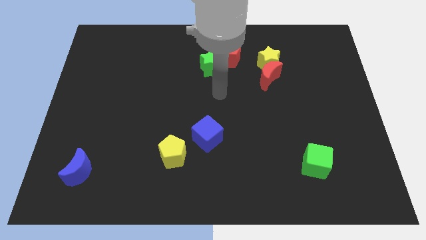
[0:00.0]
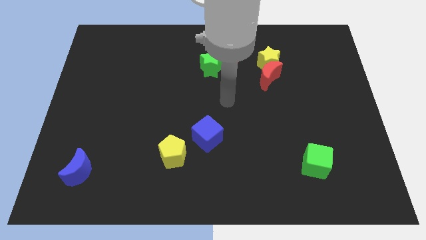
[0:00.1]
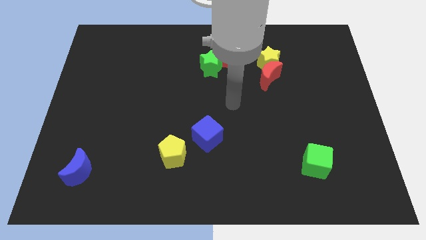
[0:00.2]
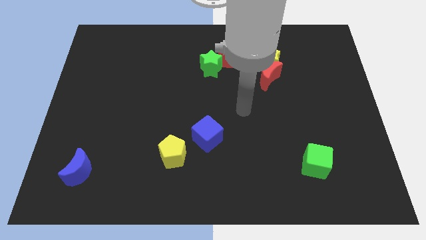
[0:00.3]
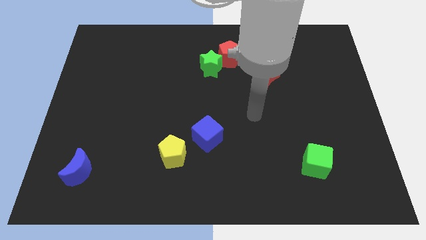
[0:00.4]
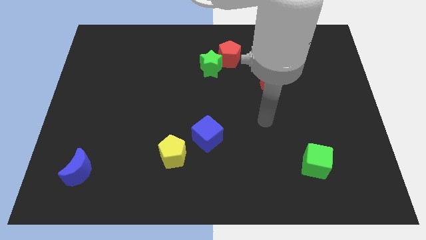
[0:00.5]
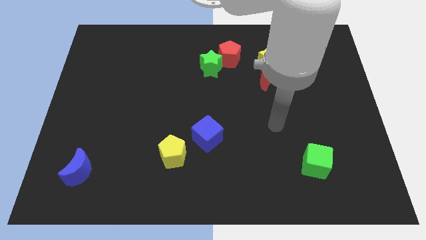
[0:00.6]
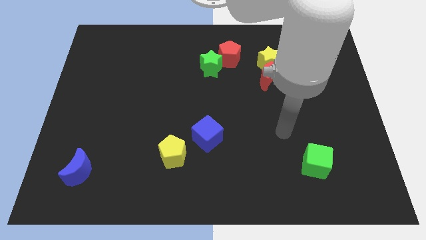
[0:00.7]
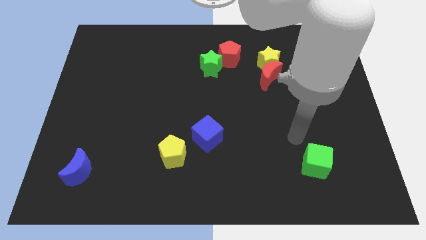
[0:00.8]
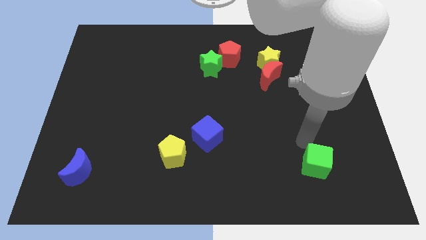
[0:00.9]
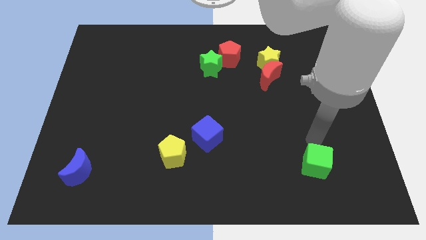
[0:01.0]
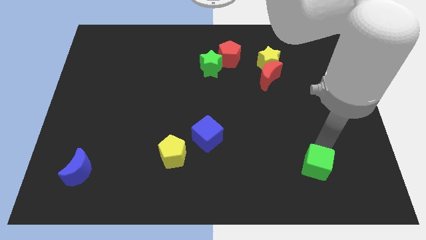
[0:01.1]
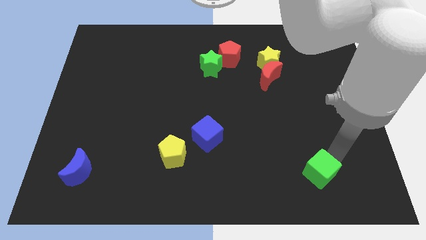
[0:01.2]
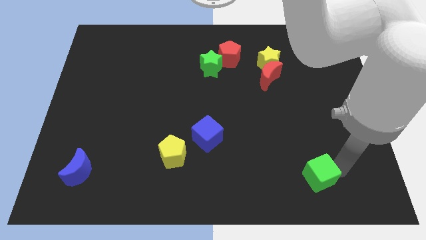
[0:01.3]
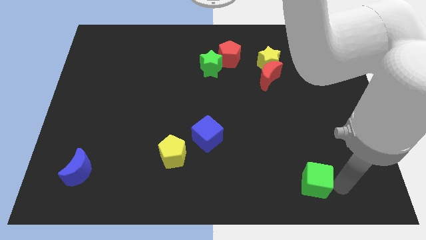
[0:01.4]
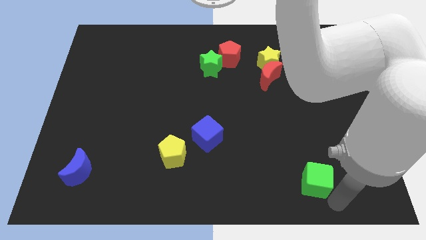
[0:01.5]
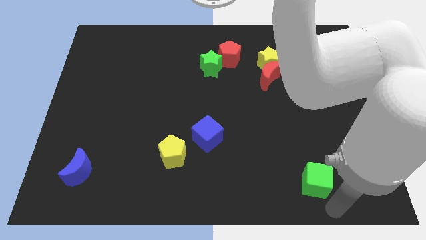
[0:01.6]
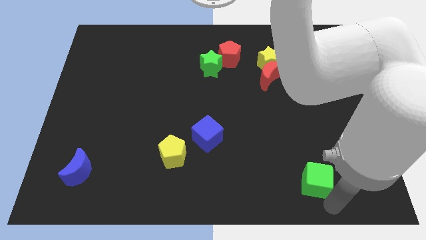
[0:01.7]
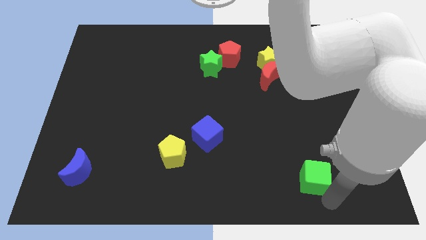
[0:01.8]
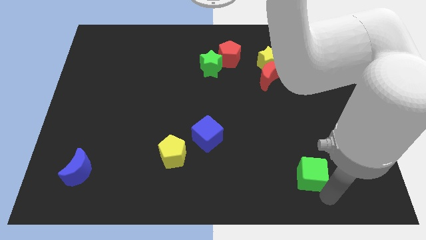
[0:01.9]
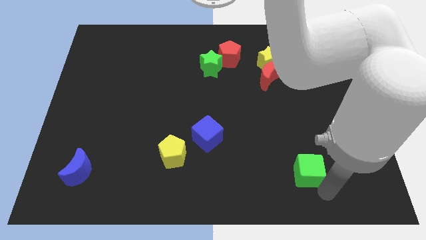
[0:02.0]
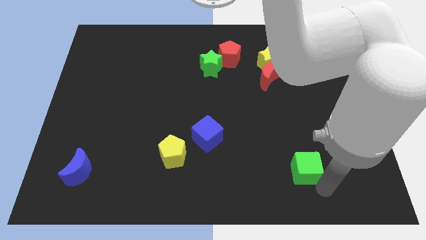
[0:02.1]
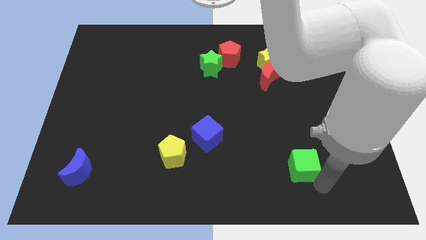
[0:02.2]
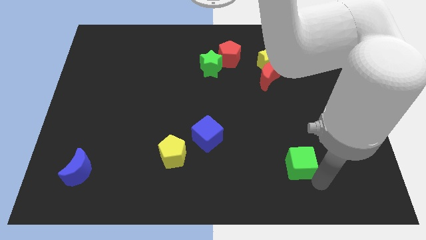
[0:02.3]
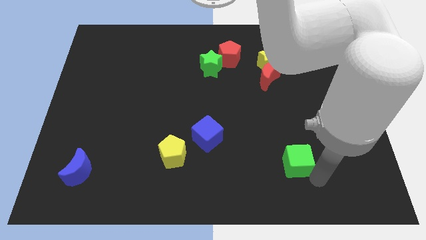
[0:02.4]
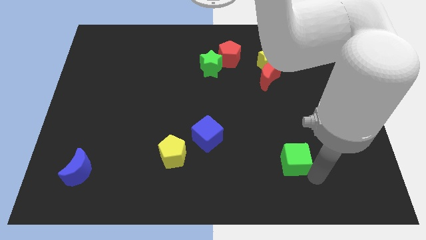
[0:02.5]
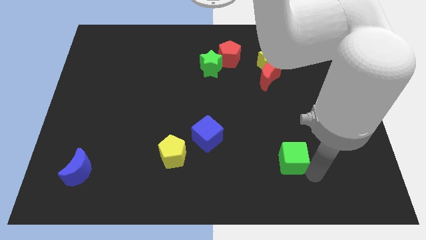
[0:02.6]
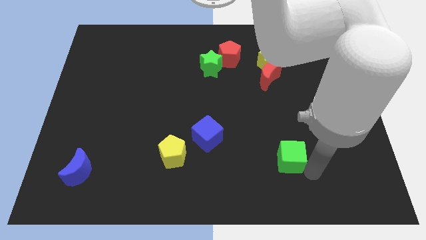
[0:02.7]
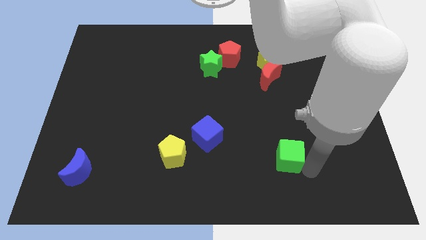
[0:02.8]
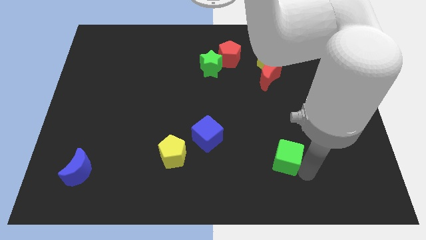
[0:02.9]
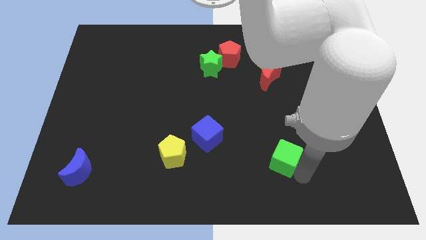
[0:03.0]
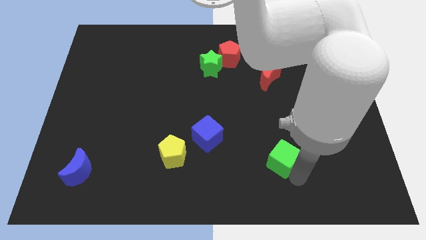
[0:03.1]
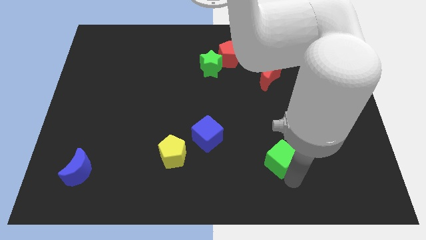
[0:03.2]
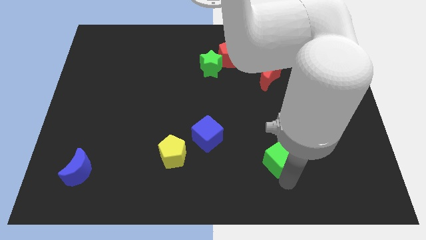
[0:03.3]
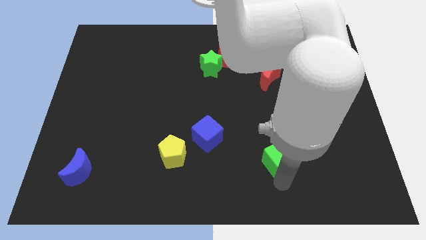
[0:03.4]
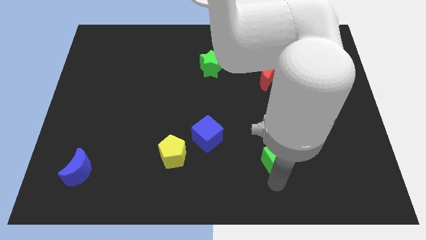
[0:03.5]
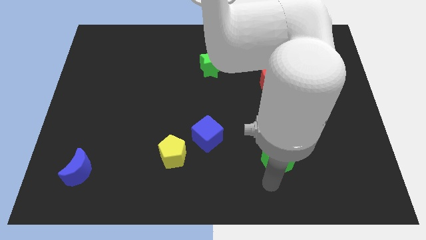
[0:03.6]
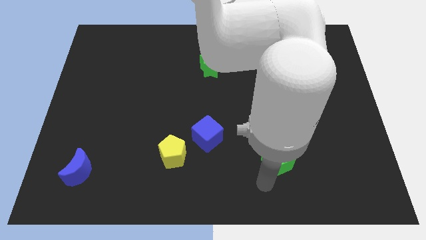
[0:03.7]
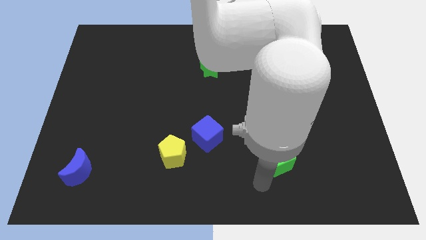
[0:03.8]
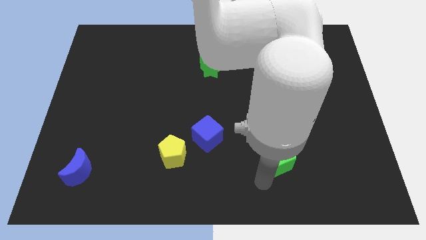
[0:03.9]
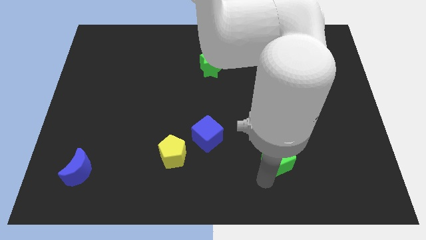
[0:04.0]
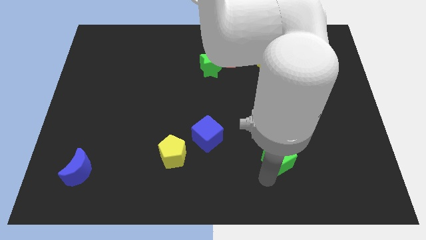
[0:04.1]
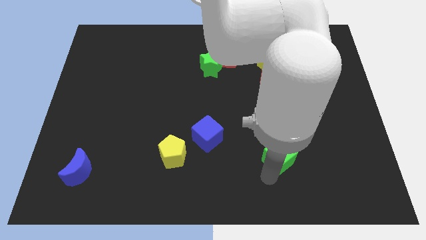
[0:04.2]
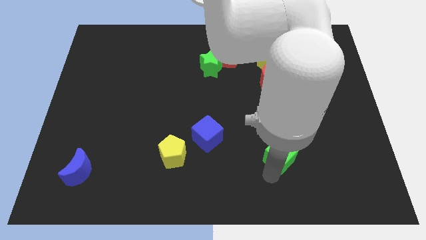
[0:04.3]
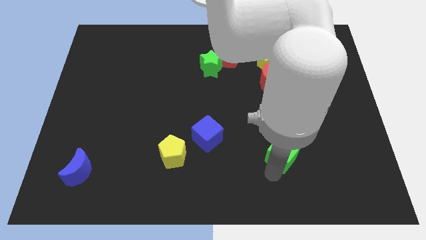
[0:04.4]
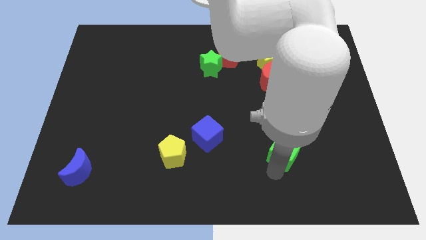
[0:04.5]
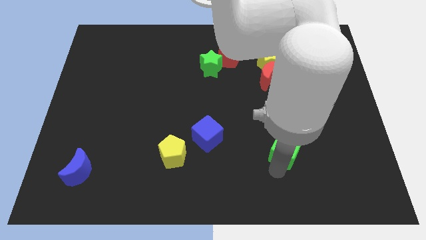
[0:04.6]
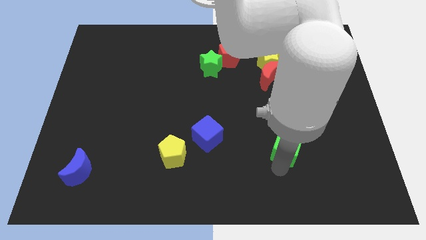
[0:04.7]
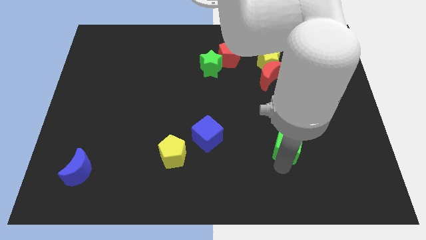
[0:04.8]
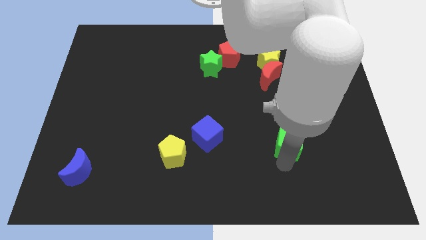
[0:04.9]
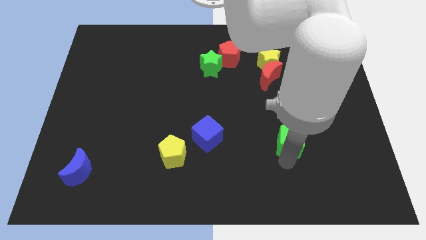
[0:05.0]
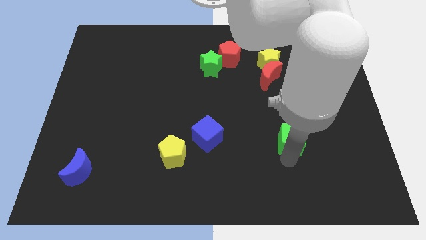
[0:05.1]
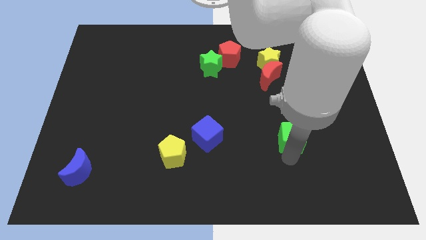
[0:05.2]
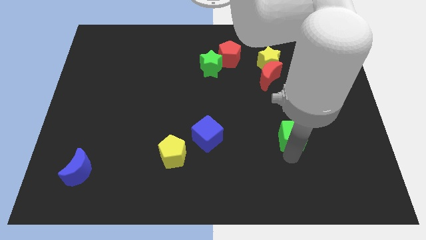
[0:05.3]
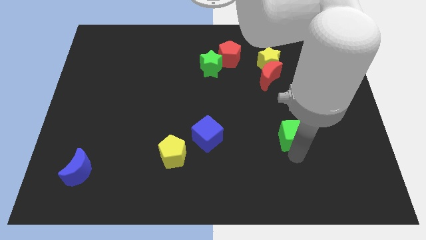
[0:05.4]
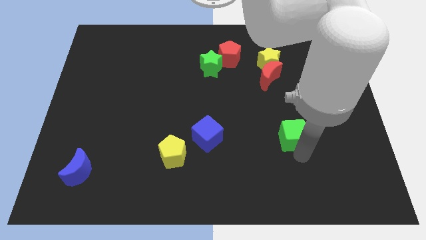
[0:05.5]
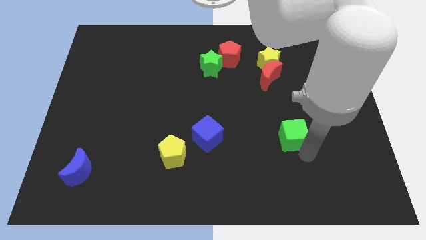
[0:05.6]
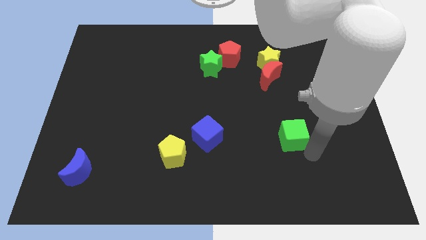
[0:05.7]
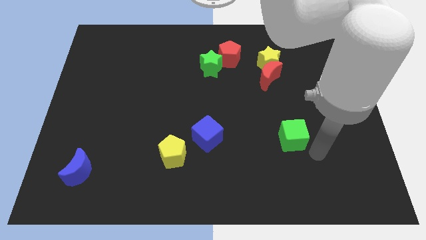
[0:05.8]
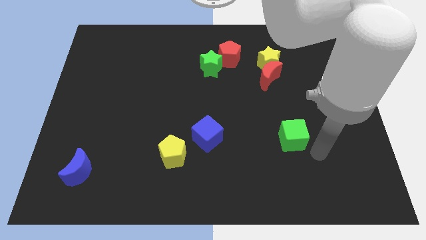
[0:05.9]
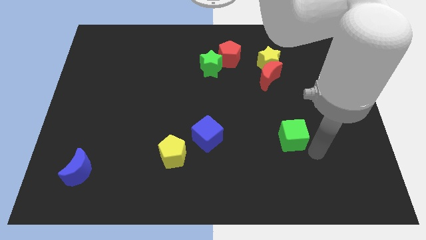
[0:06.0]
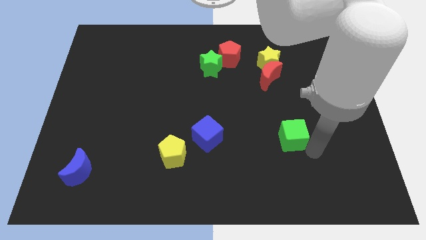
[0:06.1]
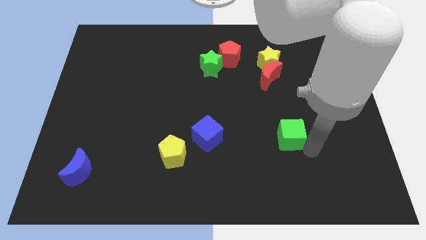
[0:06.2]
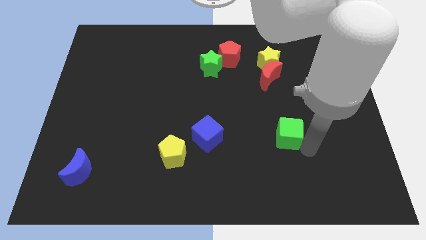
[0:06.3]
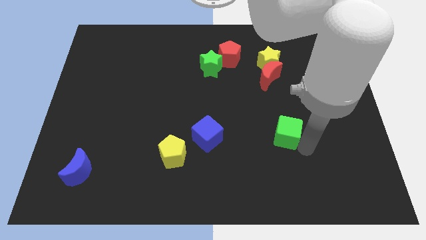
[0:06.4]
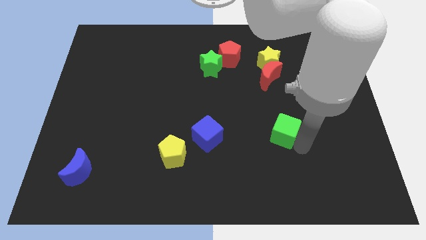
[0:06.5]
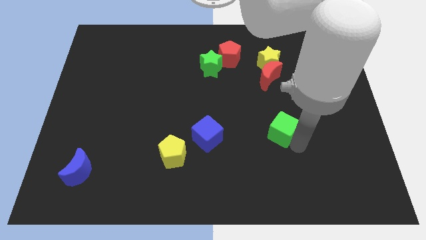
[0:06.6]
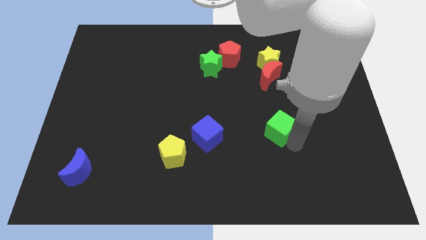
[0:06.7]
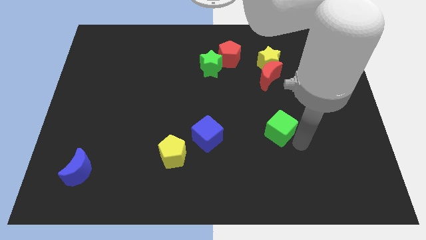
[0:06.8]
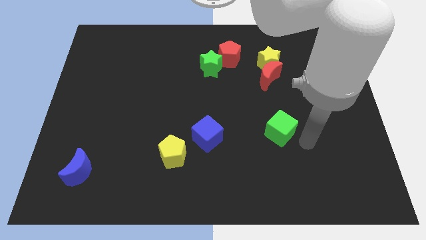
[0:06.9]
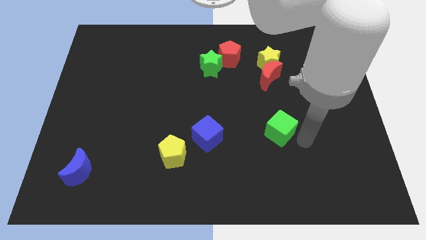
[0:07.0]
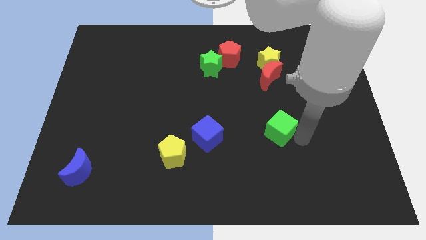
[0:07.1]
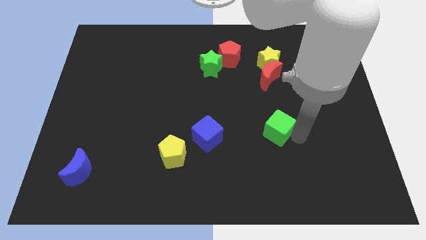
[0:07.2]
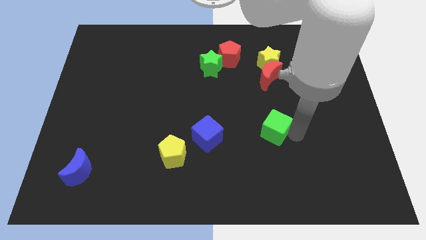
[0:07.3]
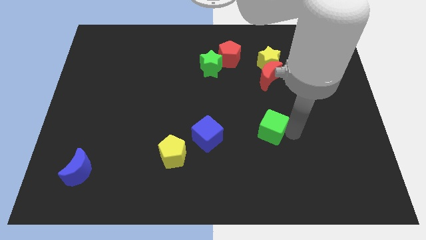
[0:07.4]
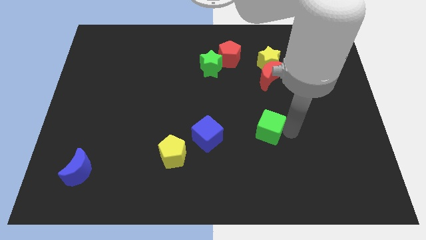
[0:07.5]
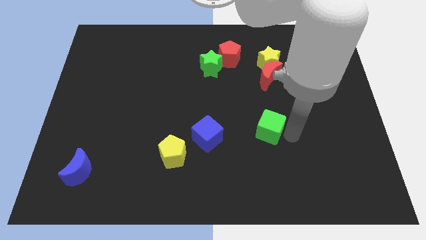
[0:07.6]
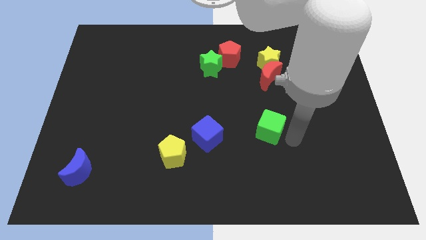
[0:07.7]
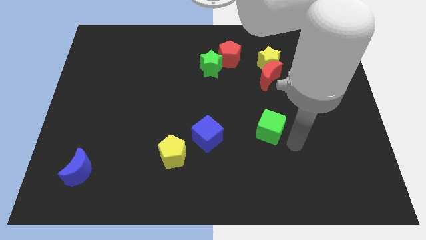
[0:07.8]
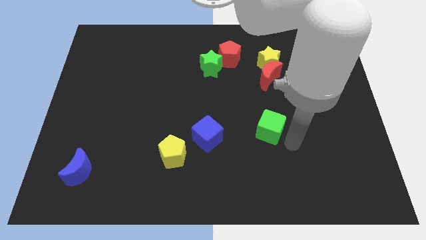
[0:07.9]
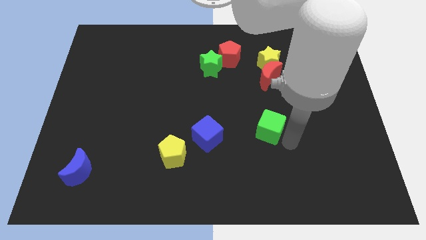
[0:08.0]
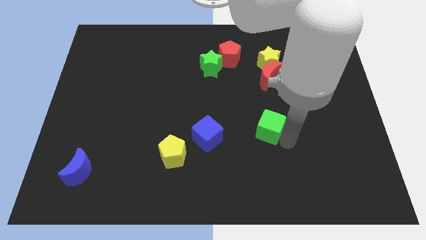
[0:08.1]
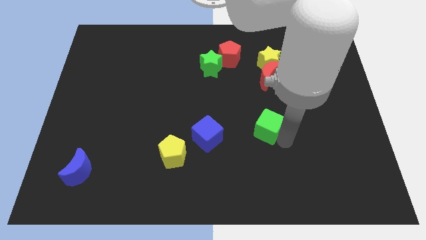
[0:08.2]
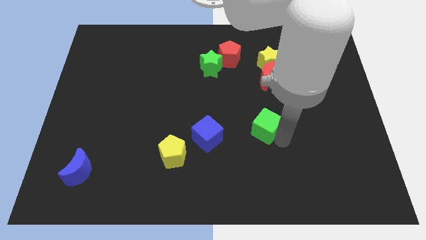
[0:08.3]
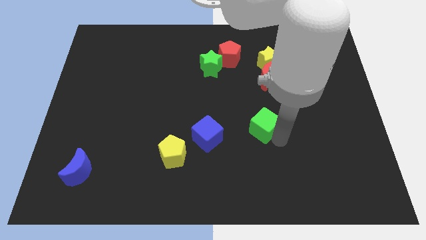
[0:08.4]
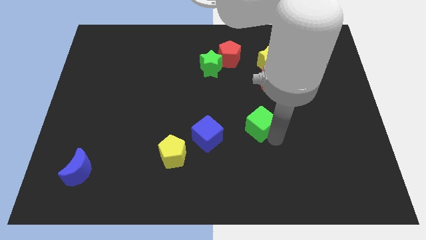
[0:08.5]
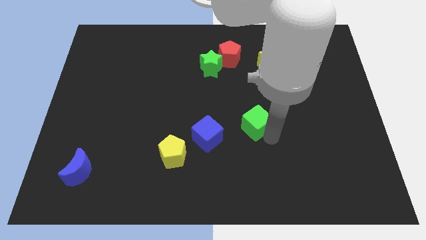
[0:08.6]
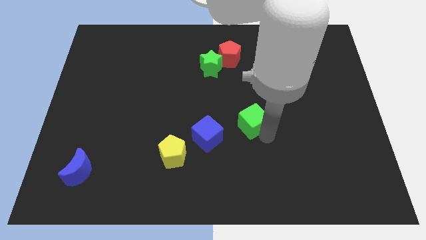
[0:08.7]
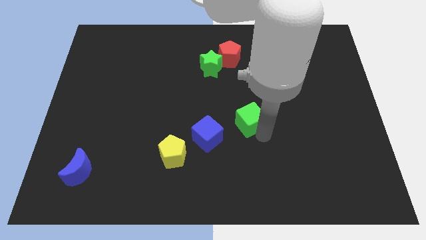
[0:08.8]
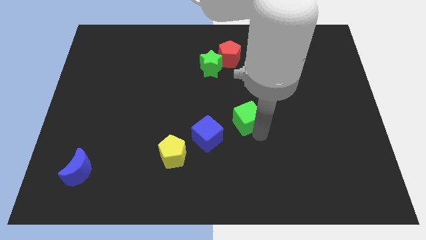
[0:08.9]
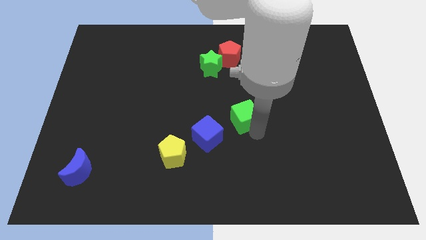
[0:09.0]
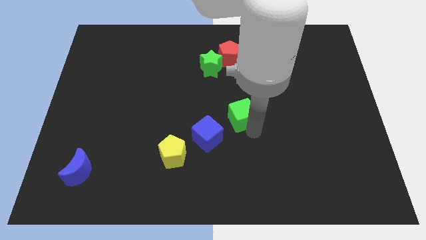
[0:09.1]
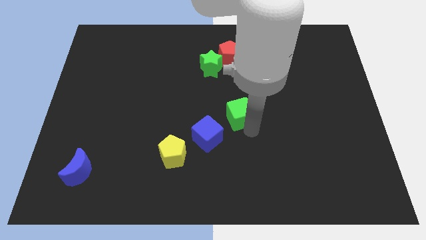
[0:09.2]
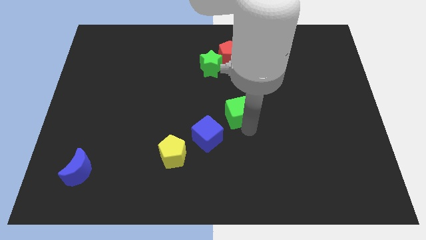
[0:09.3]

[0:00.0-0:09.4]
push the green cube upwards and left diagonally
